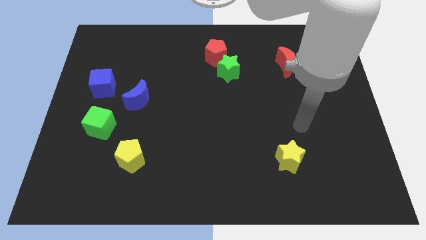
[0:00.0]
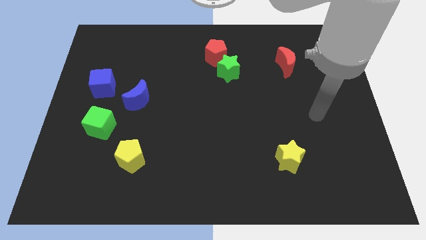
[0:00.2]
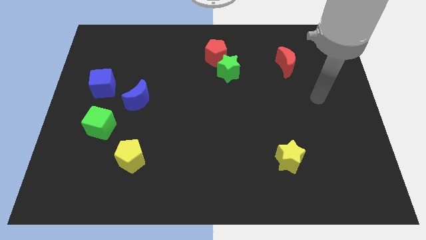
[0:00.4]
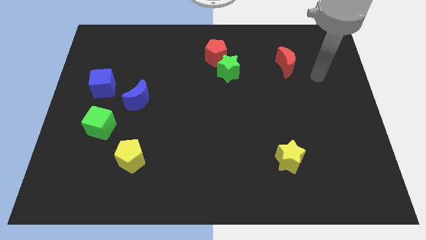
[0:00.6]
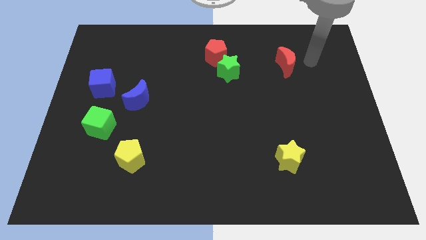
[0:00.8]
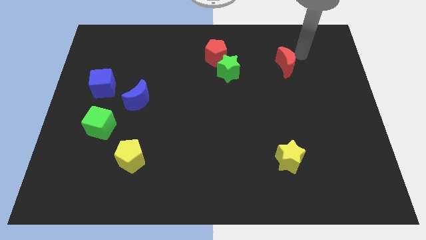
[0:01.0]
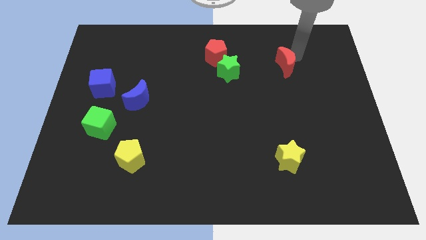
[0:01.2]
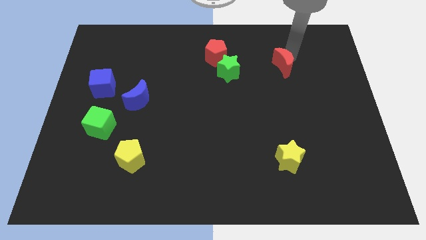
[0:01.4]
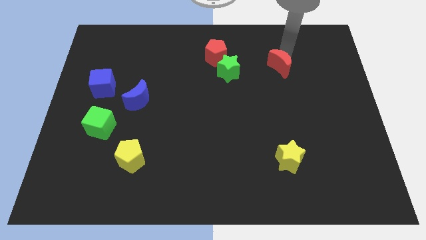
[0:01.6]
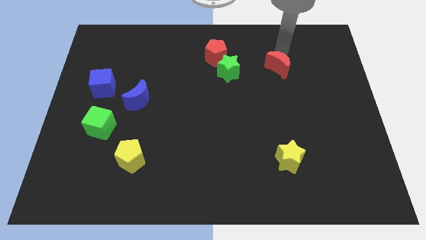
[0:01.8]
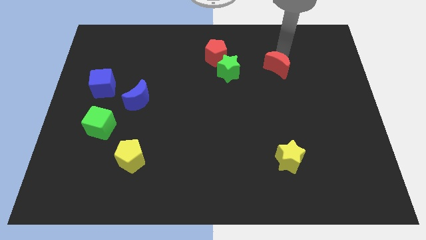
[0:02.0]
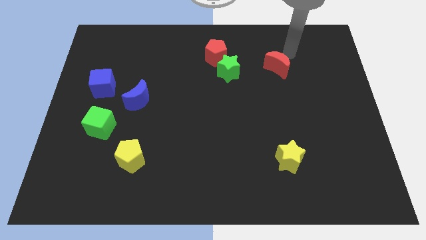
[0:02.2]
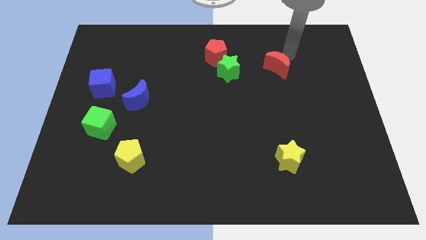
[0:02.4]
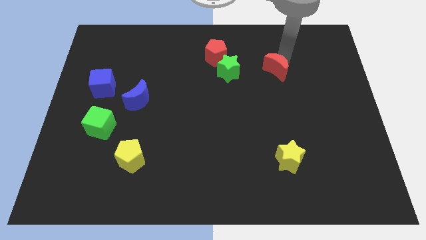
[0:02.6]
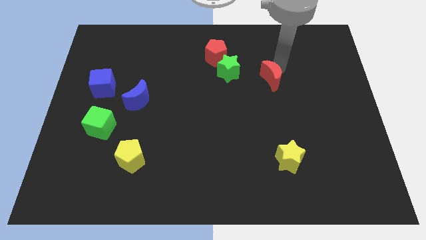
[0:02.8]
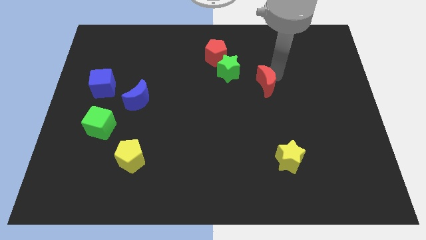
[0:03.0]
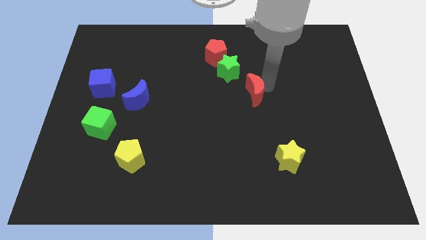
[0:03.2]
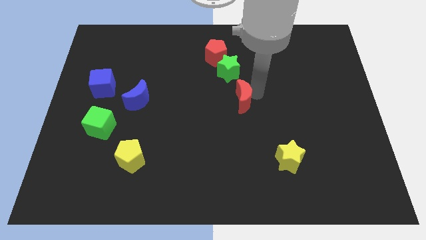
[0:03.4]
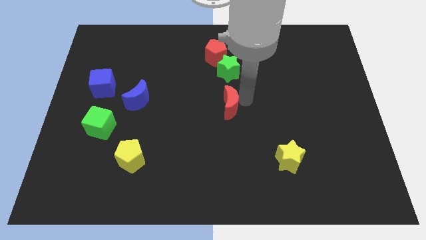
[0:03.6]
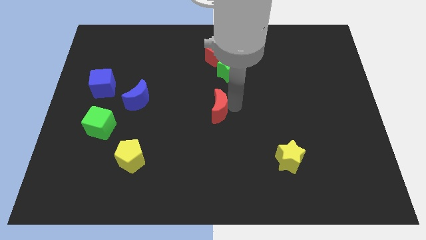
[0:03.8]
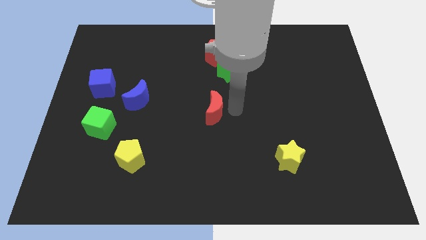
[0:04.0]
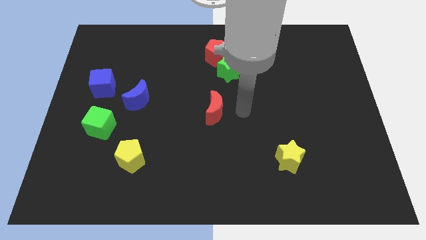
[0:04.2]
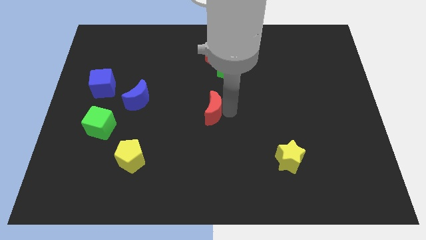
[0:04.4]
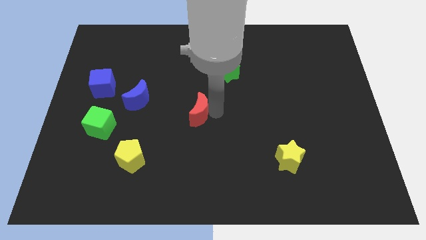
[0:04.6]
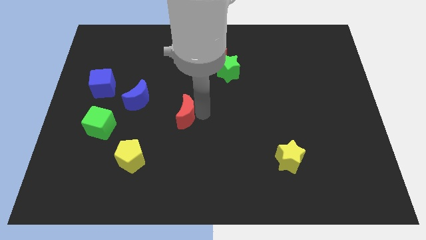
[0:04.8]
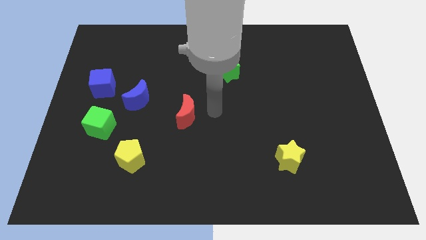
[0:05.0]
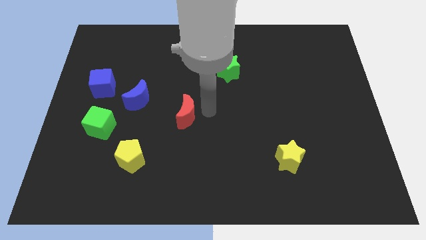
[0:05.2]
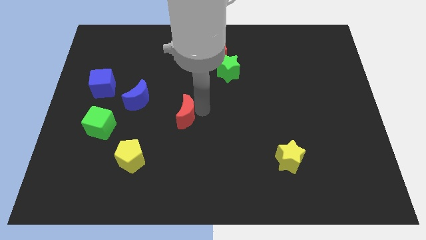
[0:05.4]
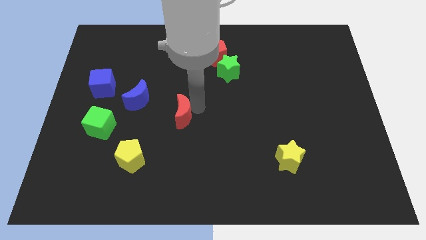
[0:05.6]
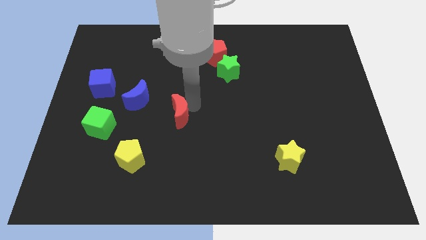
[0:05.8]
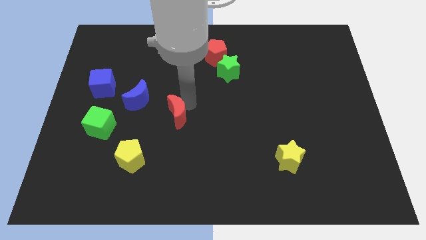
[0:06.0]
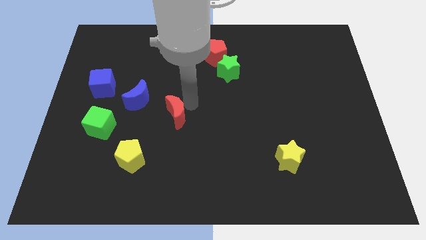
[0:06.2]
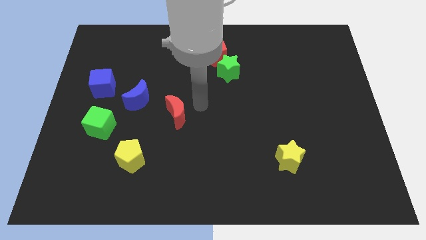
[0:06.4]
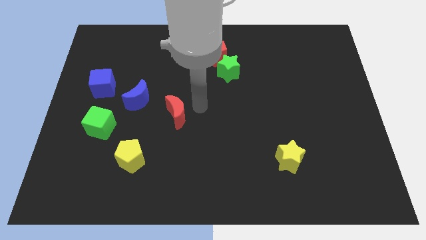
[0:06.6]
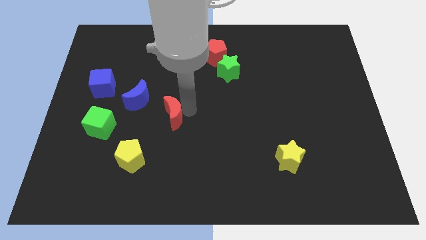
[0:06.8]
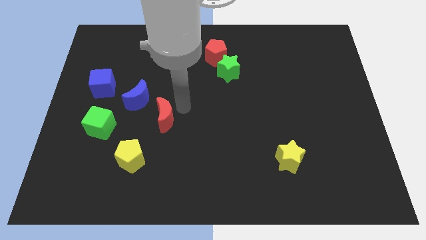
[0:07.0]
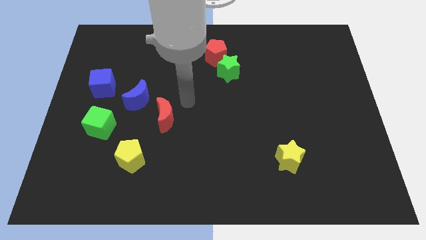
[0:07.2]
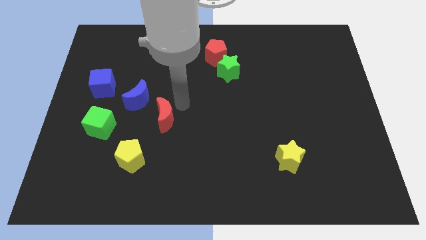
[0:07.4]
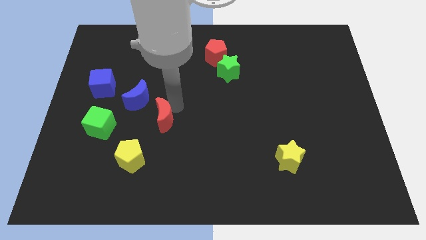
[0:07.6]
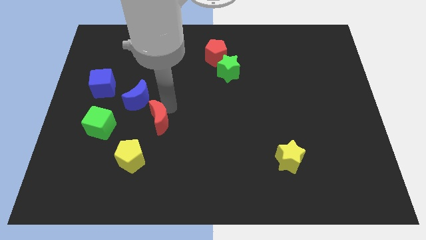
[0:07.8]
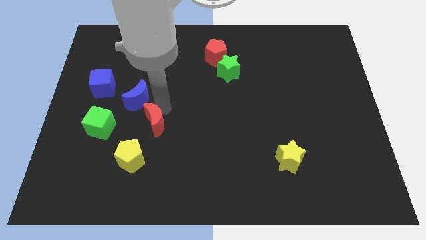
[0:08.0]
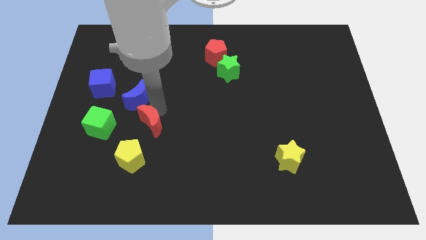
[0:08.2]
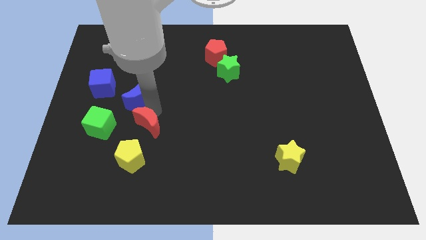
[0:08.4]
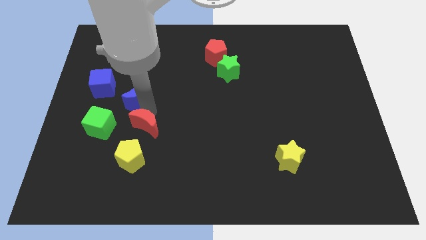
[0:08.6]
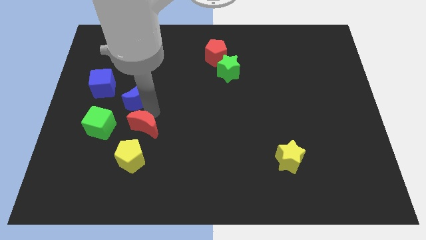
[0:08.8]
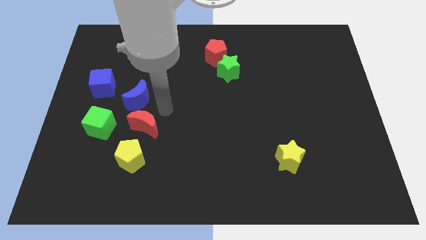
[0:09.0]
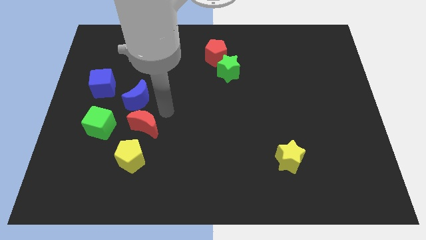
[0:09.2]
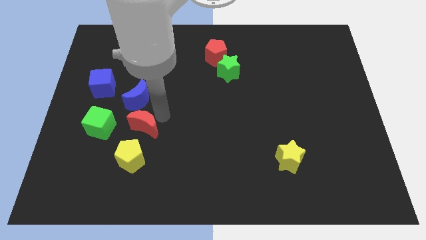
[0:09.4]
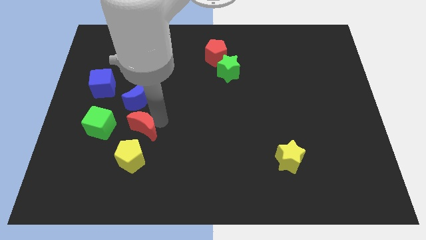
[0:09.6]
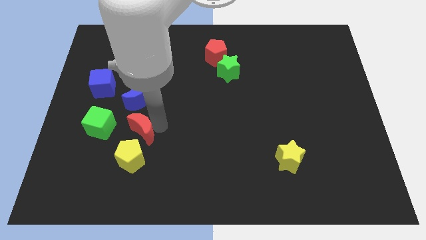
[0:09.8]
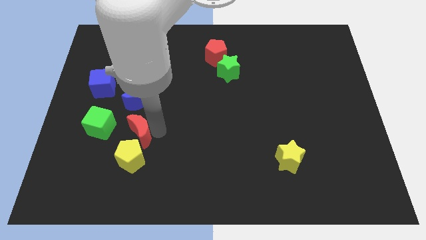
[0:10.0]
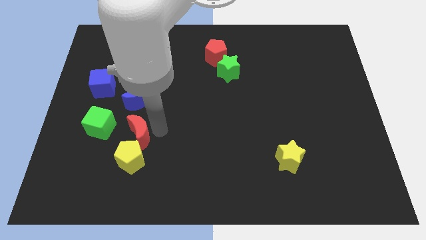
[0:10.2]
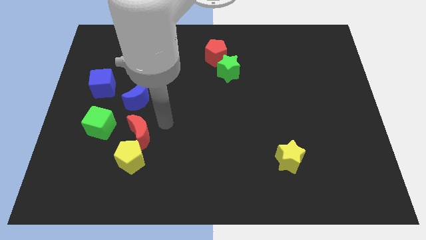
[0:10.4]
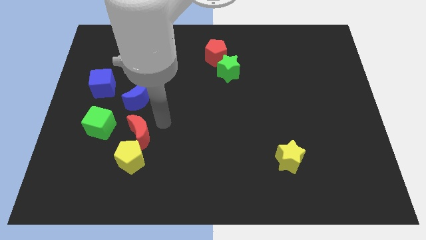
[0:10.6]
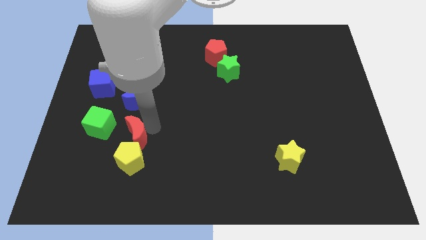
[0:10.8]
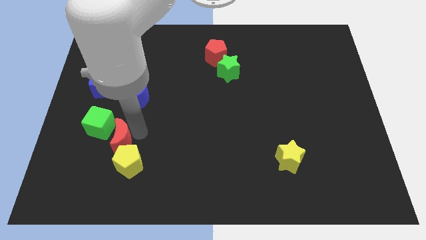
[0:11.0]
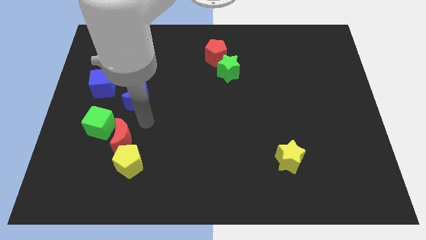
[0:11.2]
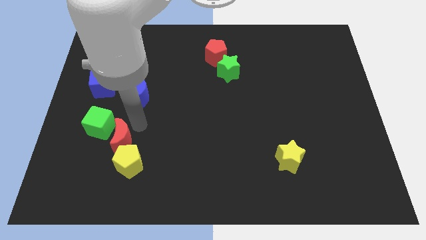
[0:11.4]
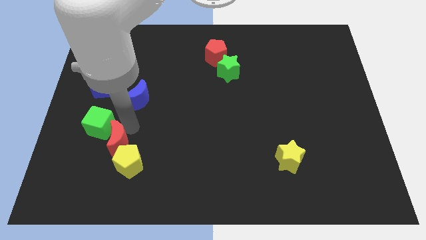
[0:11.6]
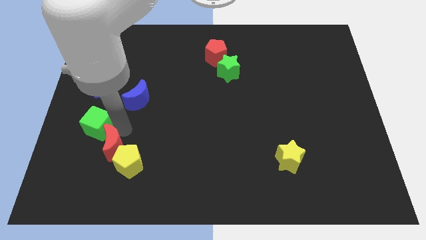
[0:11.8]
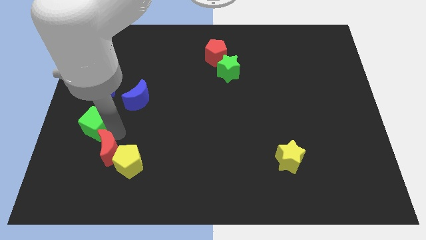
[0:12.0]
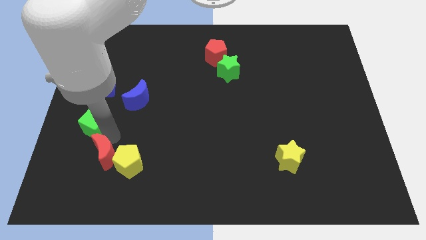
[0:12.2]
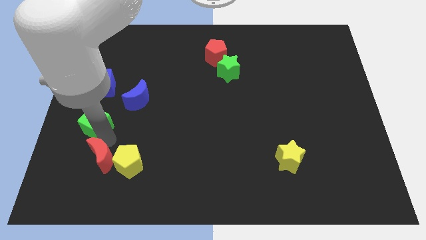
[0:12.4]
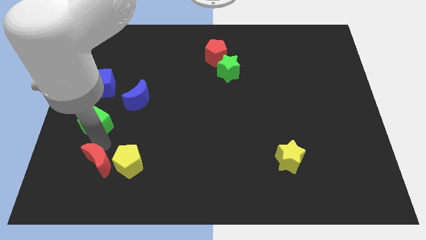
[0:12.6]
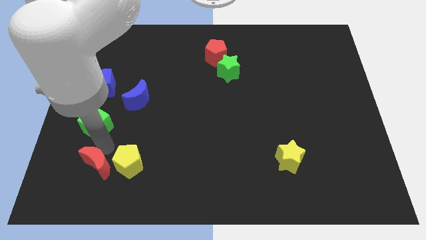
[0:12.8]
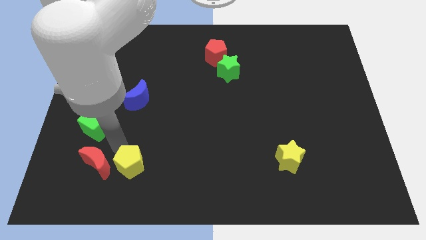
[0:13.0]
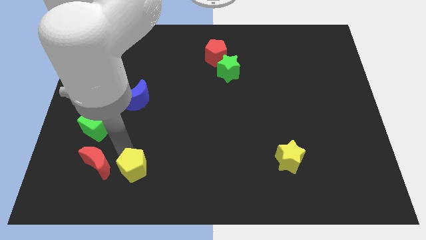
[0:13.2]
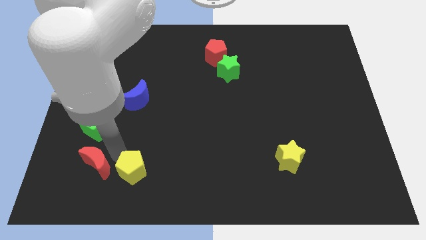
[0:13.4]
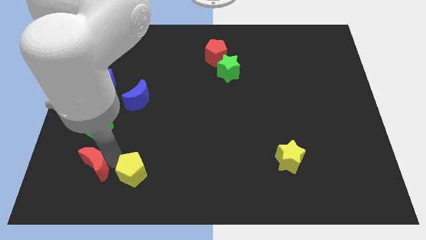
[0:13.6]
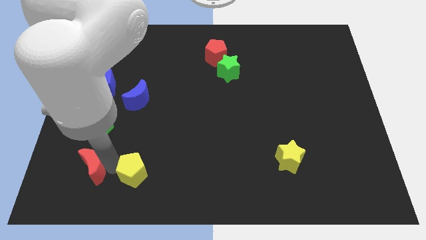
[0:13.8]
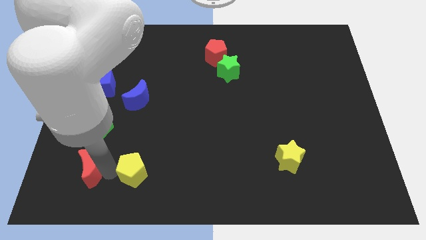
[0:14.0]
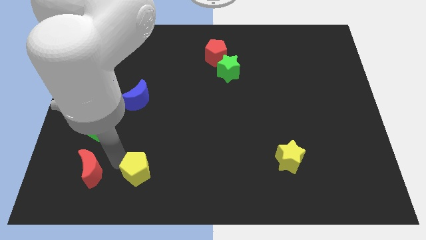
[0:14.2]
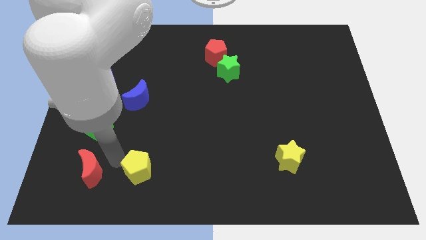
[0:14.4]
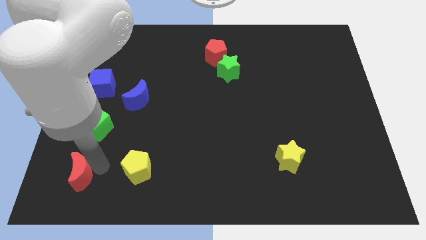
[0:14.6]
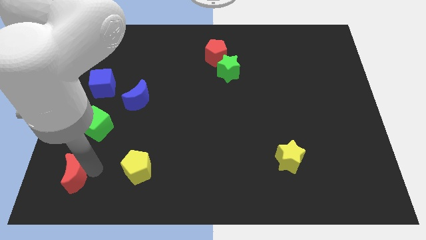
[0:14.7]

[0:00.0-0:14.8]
slide the red moon to the lower left corner
